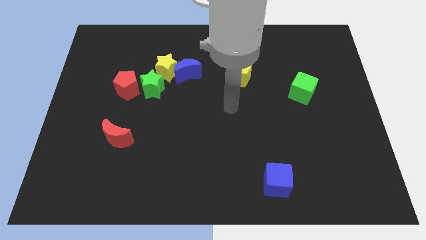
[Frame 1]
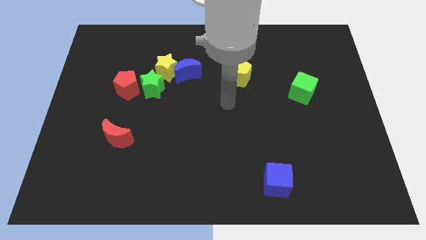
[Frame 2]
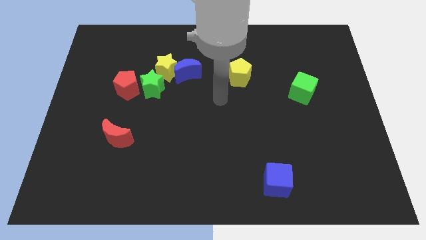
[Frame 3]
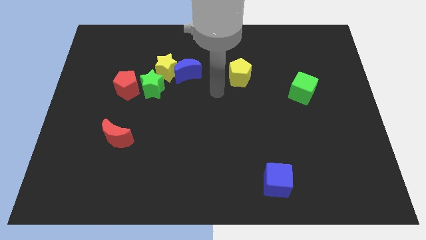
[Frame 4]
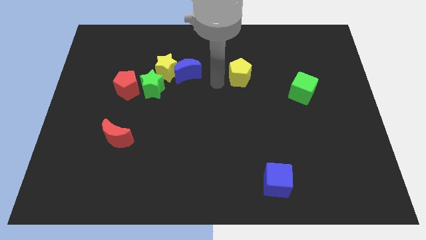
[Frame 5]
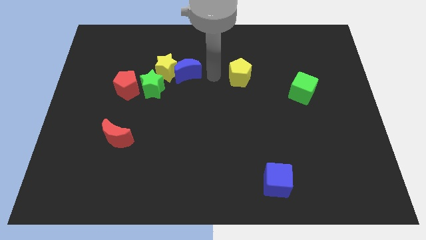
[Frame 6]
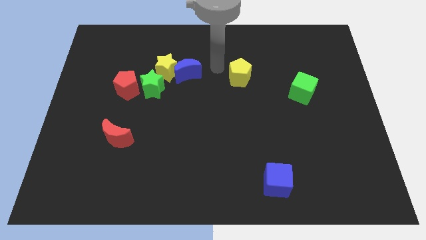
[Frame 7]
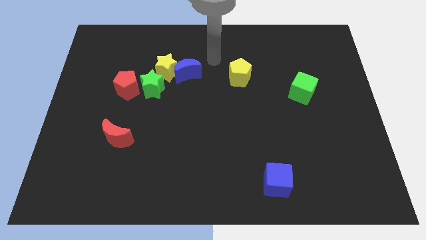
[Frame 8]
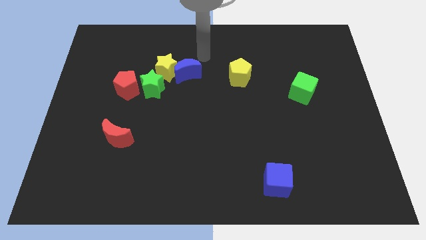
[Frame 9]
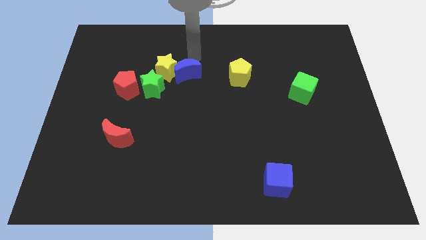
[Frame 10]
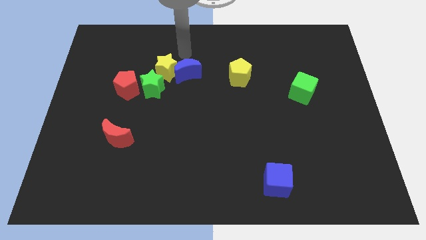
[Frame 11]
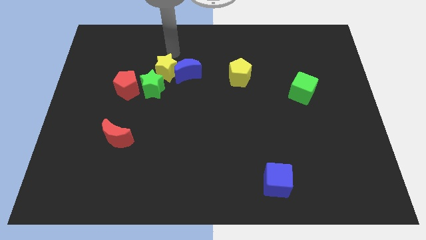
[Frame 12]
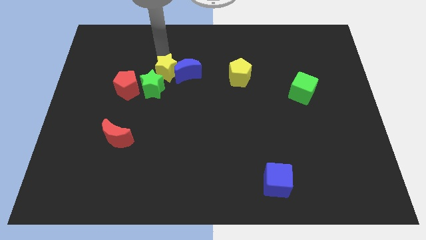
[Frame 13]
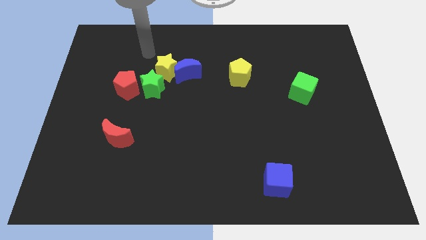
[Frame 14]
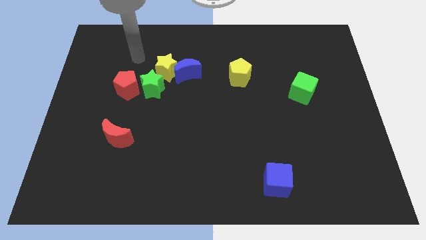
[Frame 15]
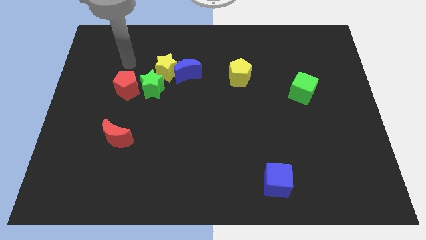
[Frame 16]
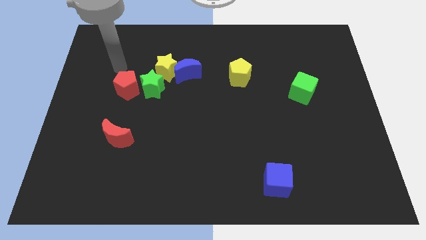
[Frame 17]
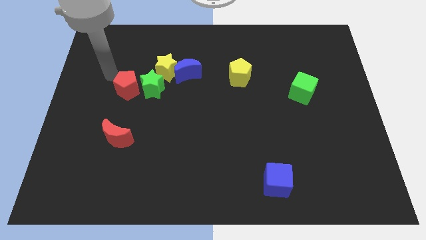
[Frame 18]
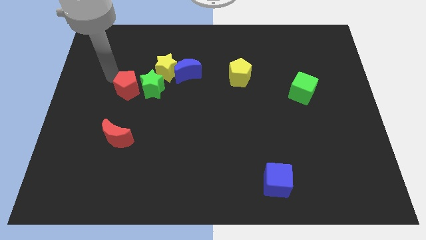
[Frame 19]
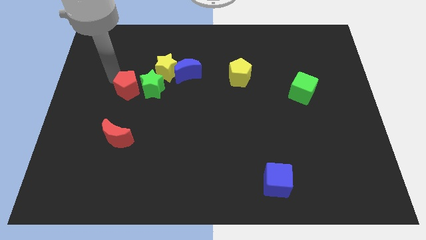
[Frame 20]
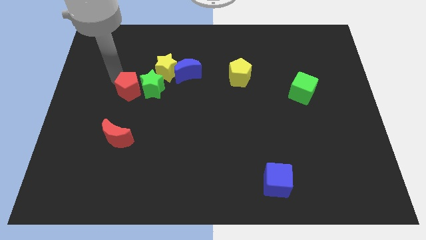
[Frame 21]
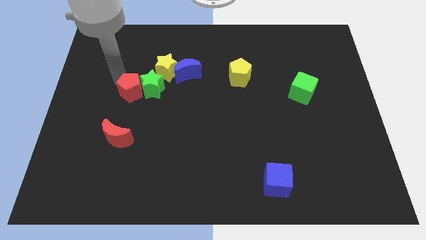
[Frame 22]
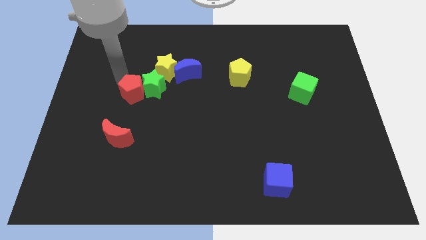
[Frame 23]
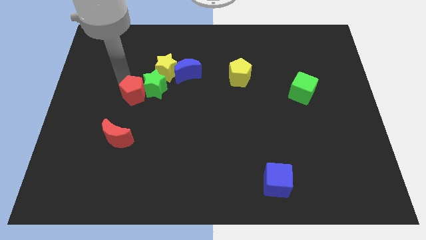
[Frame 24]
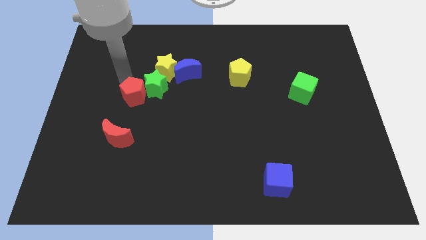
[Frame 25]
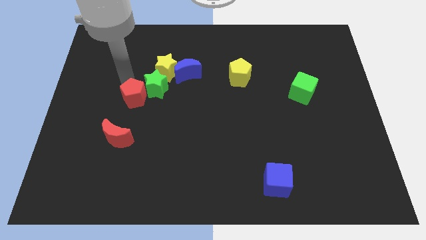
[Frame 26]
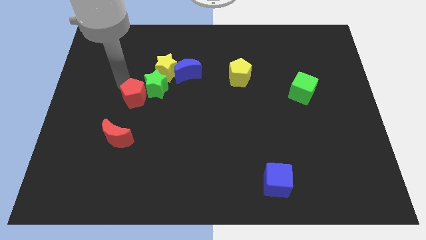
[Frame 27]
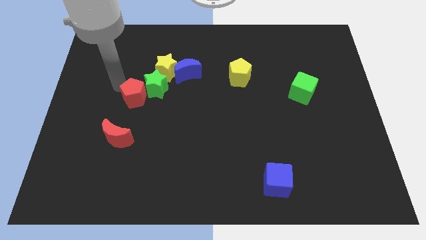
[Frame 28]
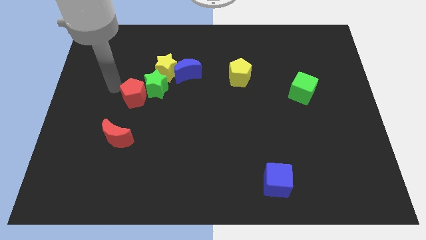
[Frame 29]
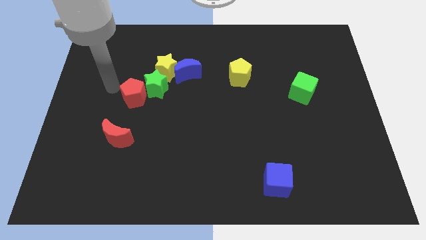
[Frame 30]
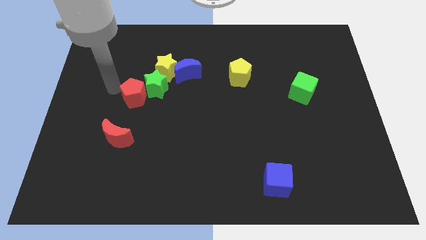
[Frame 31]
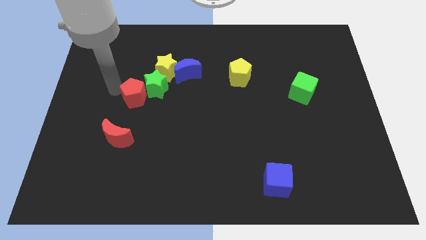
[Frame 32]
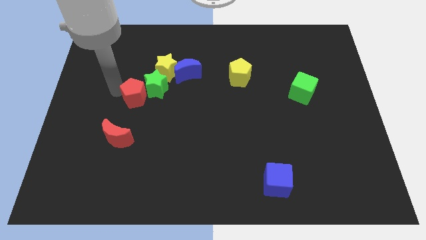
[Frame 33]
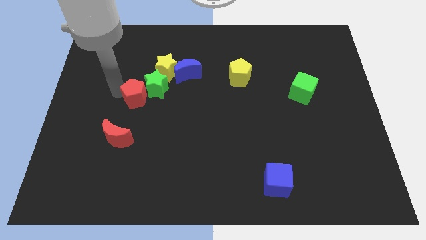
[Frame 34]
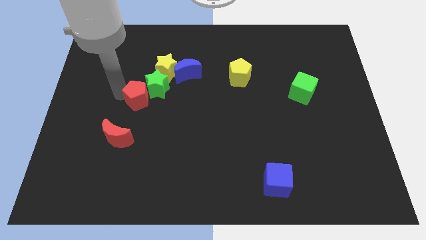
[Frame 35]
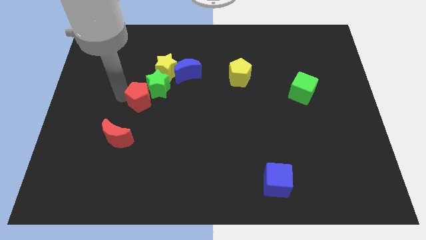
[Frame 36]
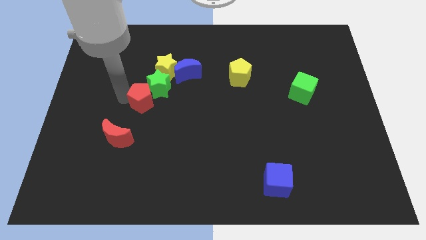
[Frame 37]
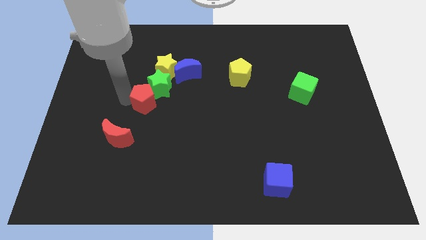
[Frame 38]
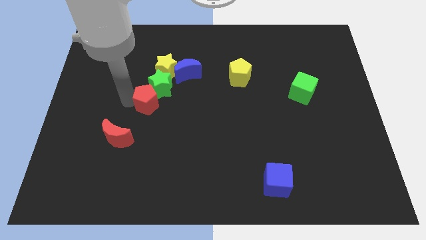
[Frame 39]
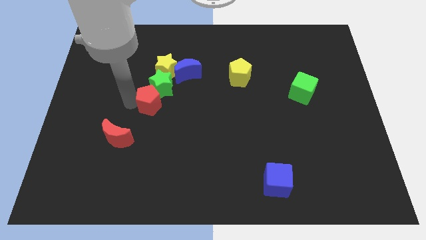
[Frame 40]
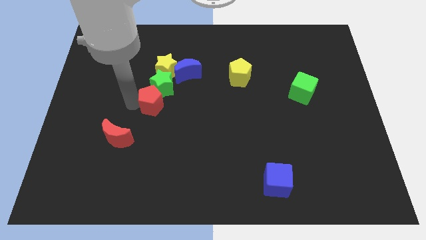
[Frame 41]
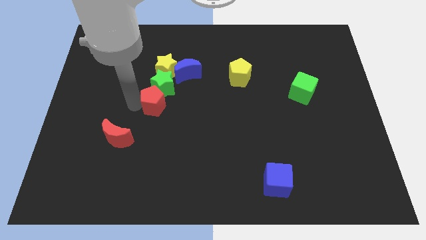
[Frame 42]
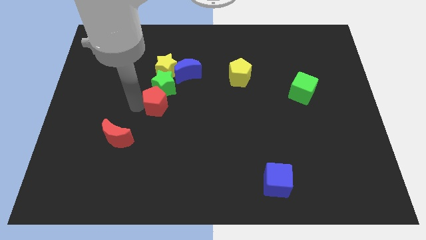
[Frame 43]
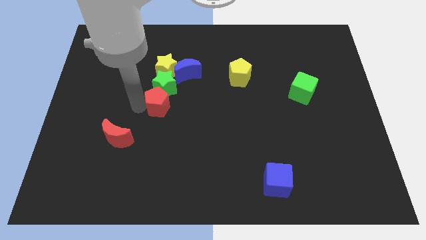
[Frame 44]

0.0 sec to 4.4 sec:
slide the red pentagon a little right

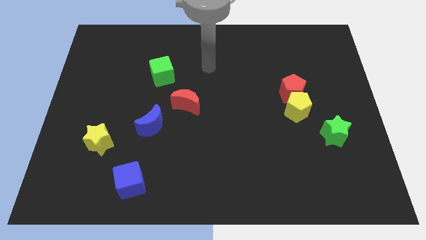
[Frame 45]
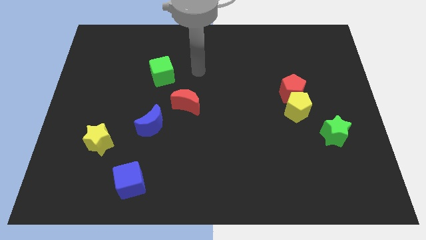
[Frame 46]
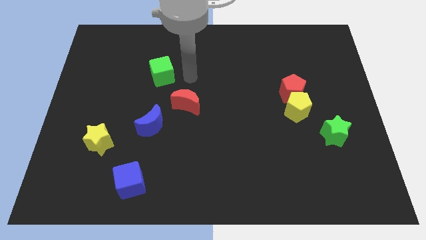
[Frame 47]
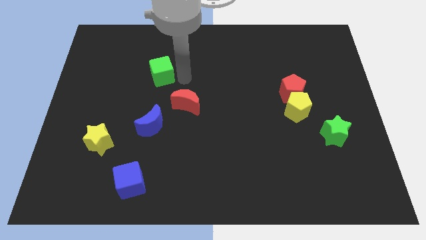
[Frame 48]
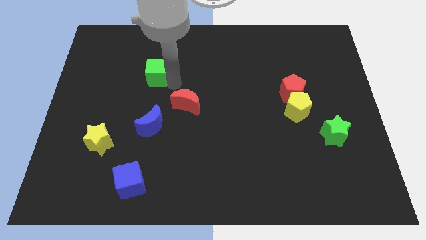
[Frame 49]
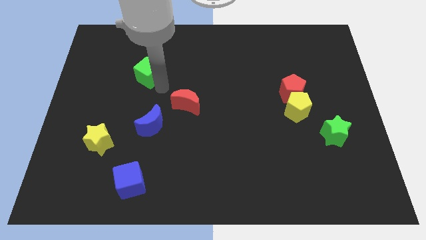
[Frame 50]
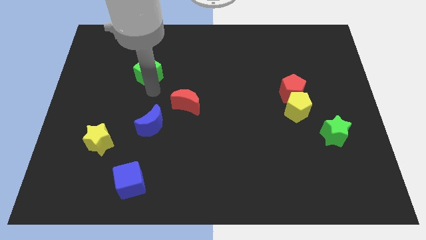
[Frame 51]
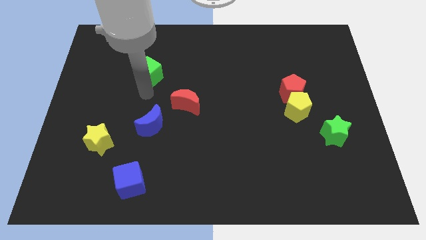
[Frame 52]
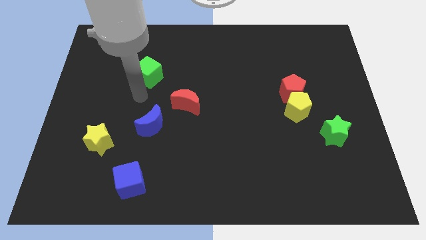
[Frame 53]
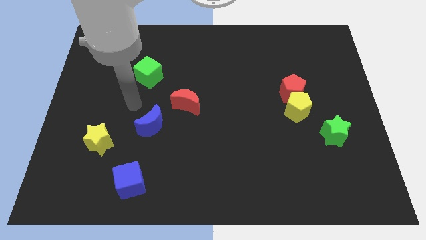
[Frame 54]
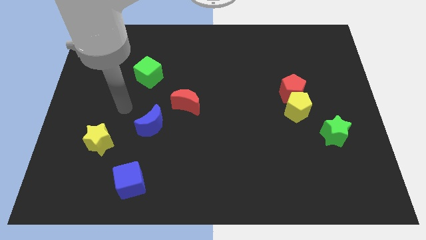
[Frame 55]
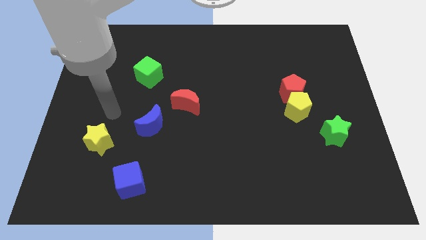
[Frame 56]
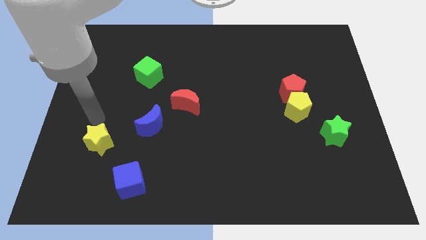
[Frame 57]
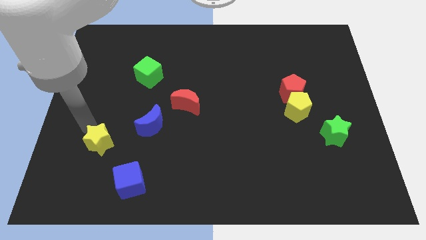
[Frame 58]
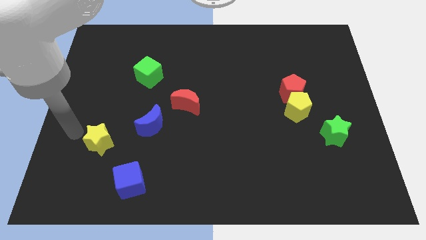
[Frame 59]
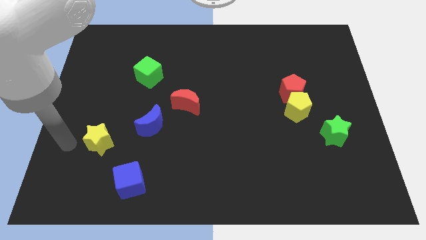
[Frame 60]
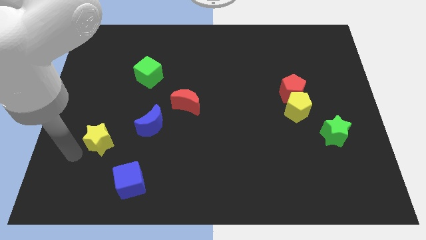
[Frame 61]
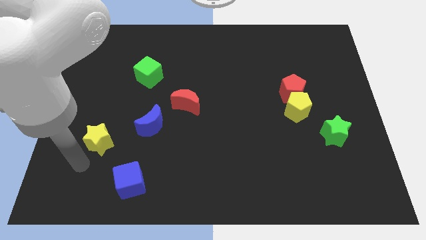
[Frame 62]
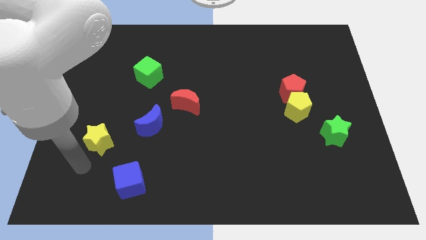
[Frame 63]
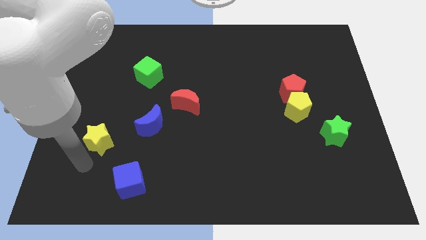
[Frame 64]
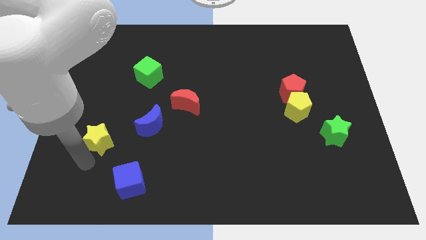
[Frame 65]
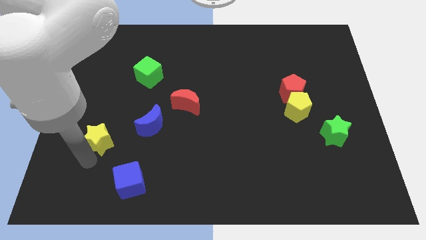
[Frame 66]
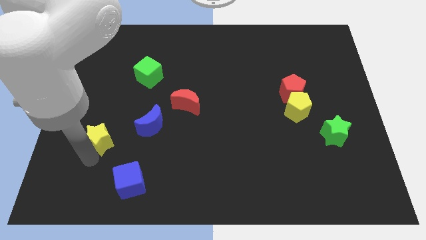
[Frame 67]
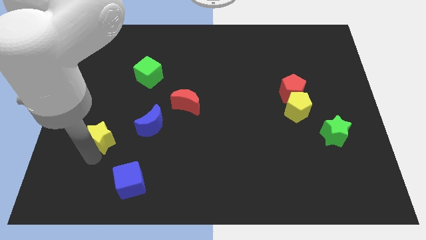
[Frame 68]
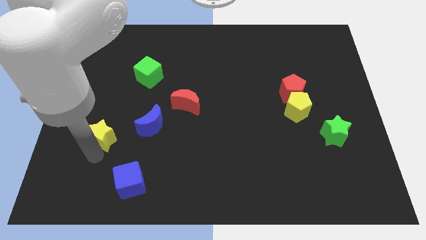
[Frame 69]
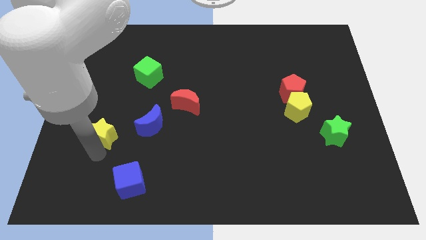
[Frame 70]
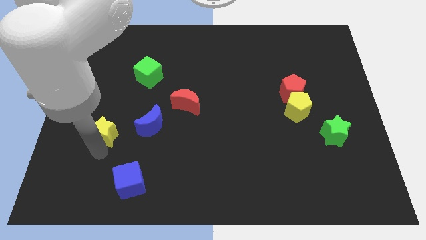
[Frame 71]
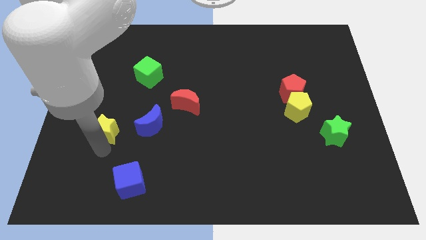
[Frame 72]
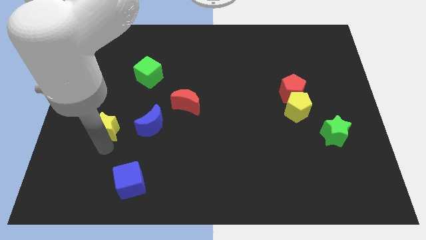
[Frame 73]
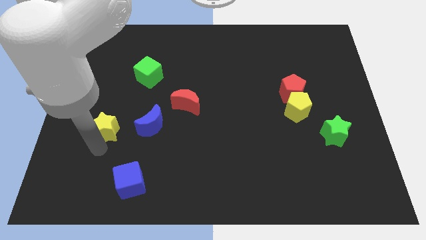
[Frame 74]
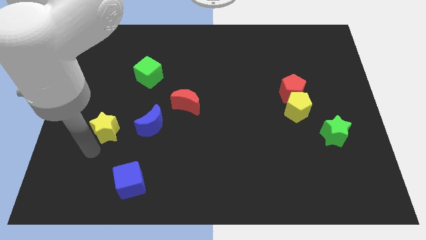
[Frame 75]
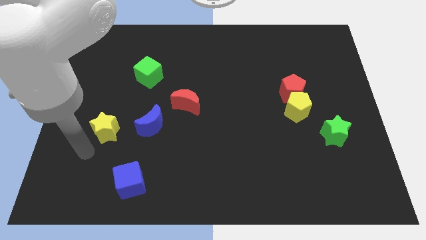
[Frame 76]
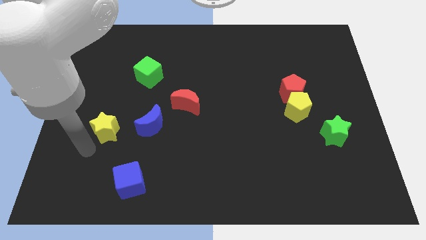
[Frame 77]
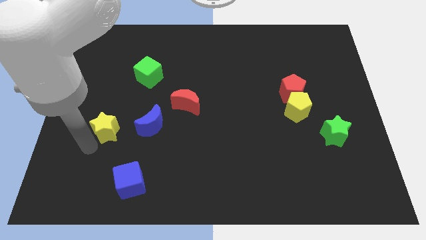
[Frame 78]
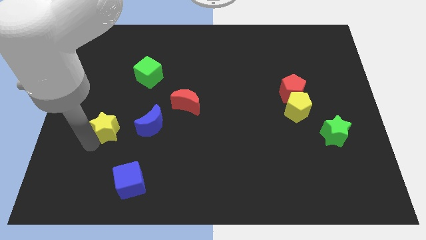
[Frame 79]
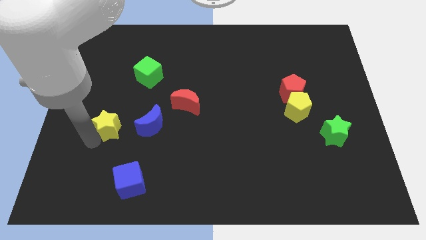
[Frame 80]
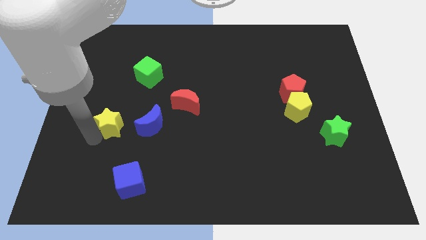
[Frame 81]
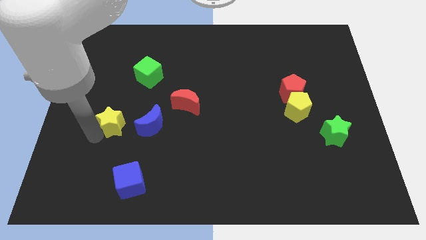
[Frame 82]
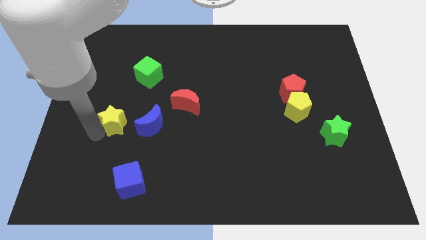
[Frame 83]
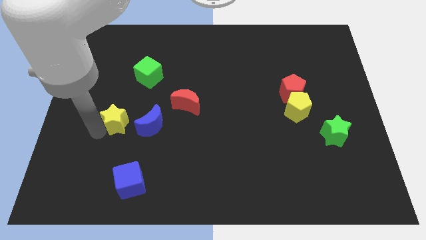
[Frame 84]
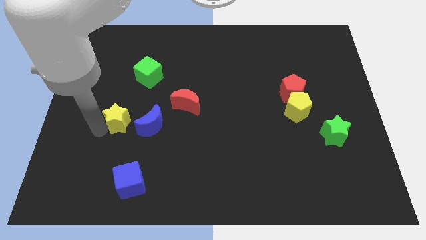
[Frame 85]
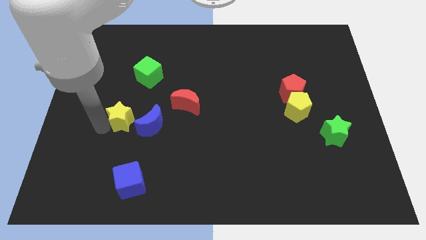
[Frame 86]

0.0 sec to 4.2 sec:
move the yellow star upwards and then right a little bit
